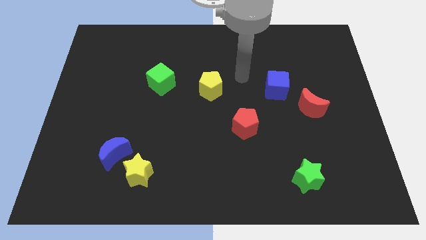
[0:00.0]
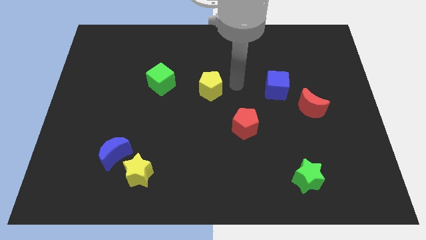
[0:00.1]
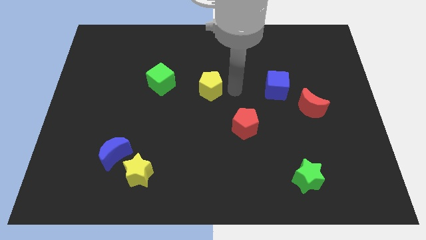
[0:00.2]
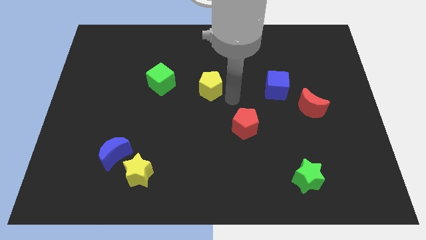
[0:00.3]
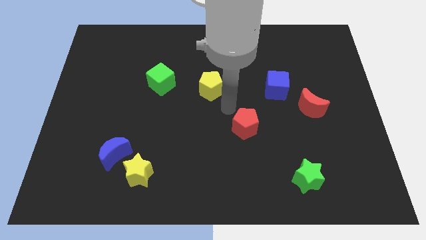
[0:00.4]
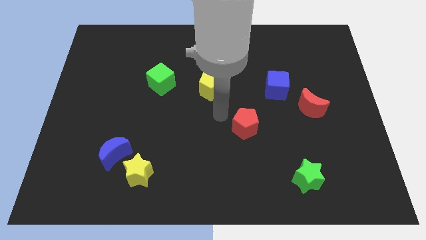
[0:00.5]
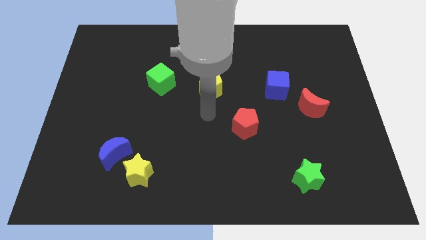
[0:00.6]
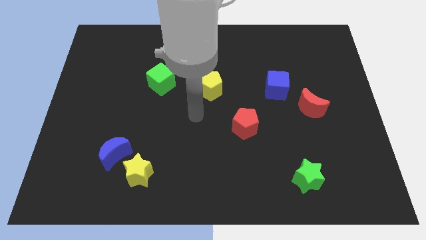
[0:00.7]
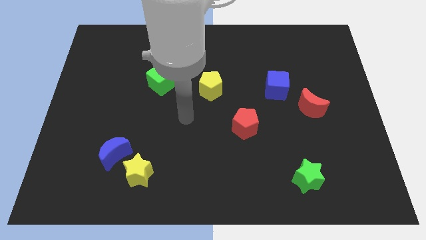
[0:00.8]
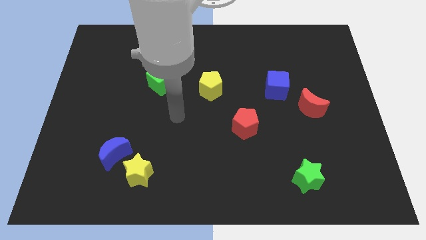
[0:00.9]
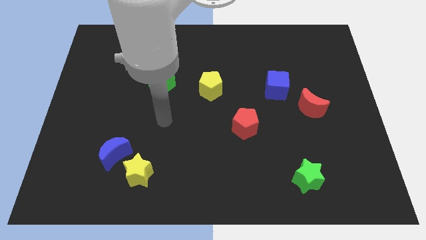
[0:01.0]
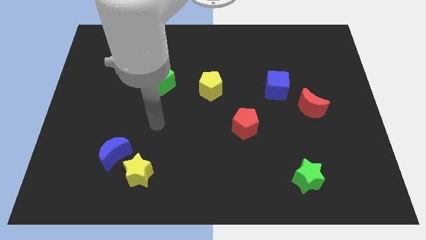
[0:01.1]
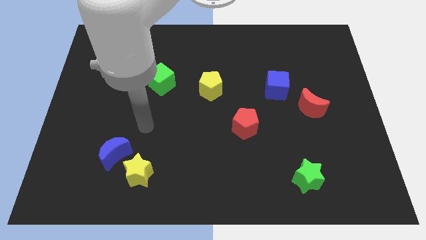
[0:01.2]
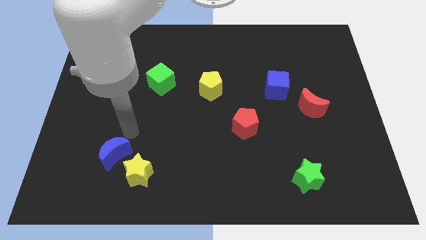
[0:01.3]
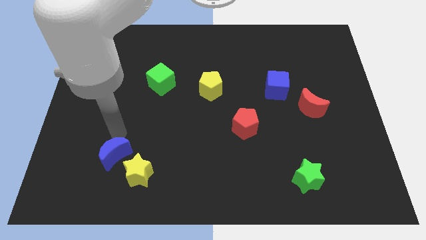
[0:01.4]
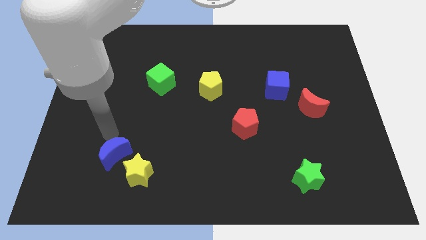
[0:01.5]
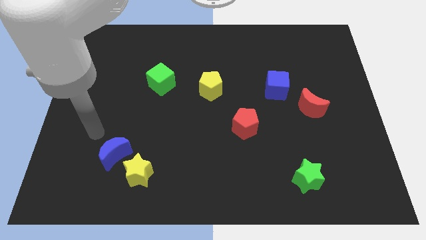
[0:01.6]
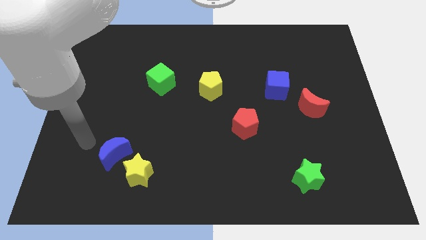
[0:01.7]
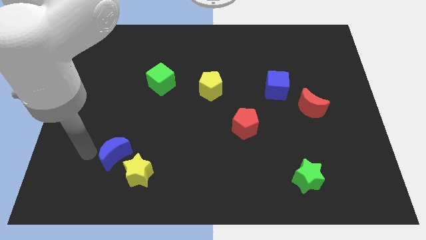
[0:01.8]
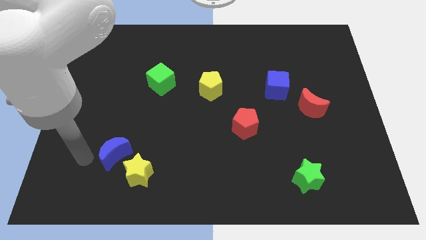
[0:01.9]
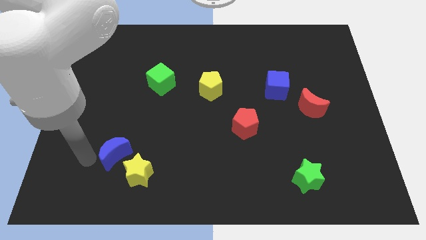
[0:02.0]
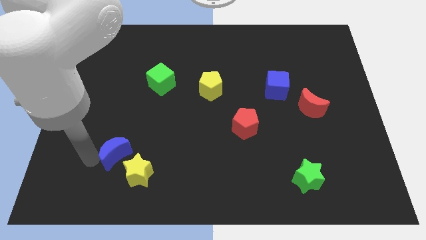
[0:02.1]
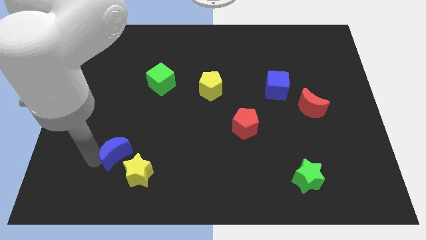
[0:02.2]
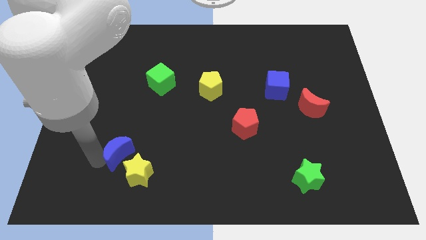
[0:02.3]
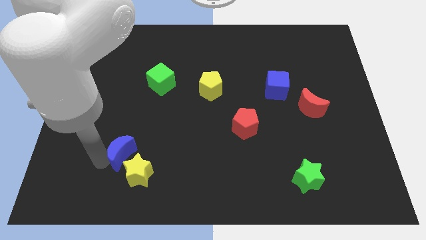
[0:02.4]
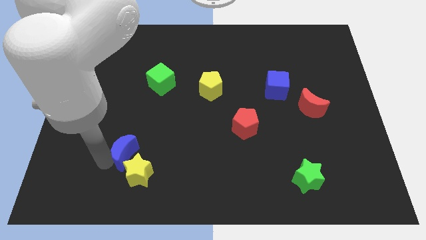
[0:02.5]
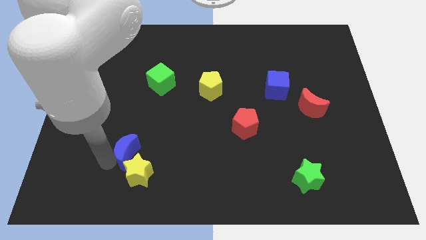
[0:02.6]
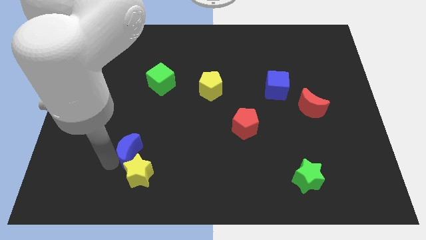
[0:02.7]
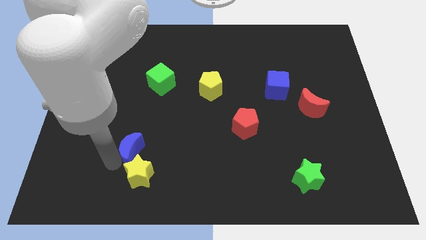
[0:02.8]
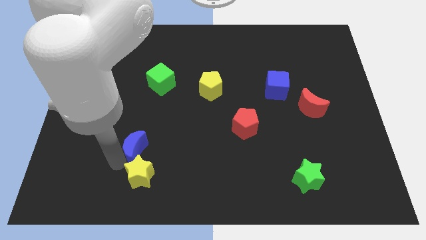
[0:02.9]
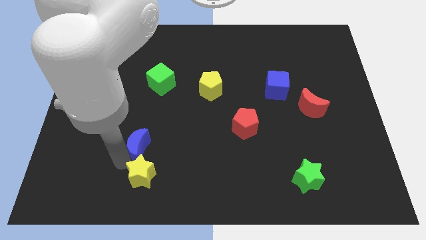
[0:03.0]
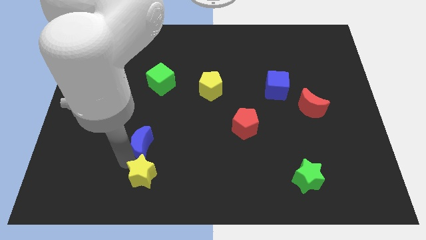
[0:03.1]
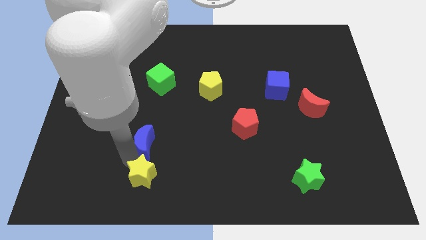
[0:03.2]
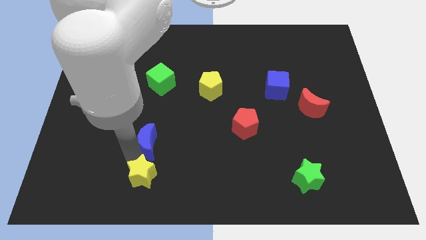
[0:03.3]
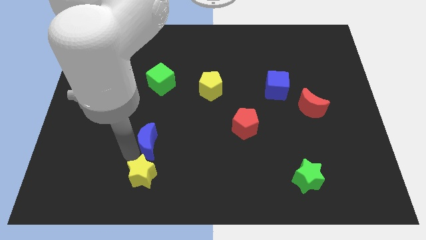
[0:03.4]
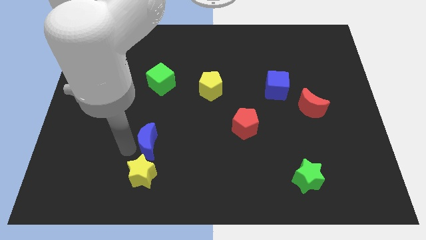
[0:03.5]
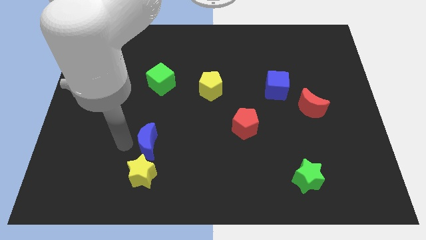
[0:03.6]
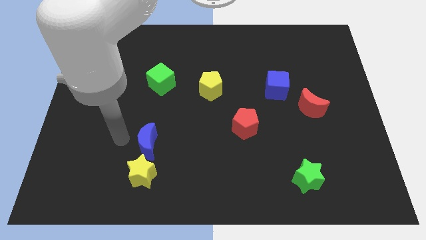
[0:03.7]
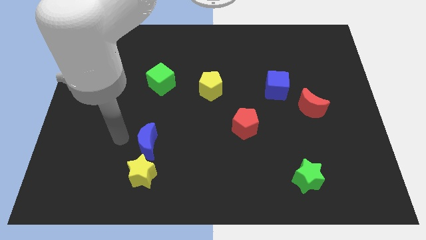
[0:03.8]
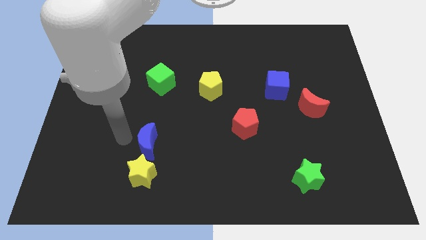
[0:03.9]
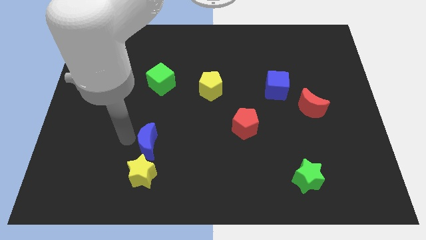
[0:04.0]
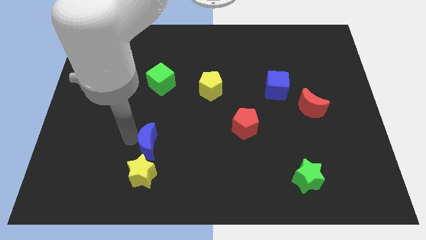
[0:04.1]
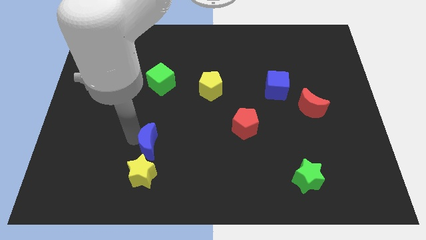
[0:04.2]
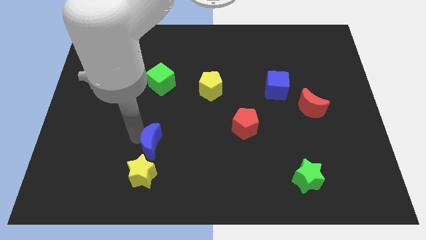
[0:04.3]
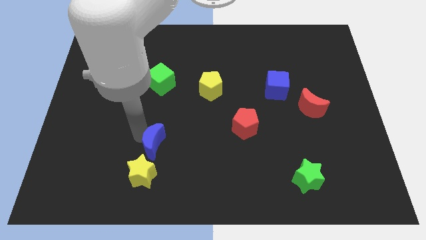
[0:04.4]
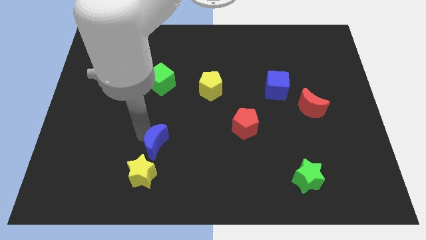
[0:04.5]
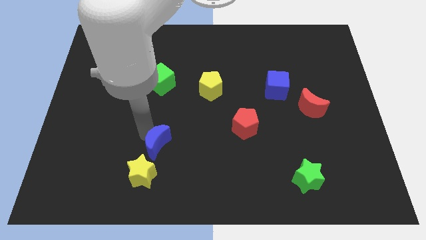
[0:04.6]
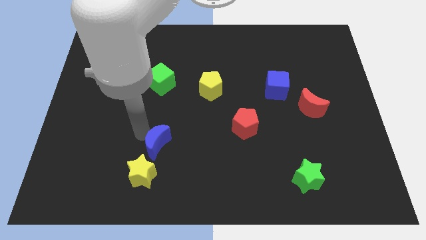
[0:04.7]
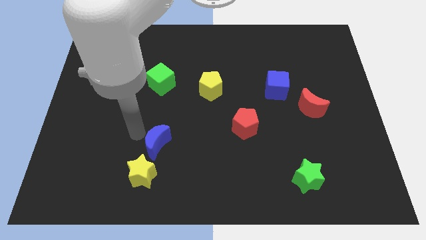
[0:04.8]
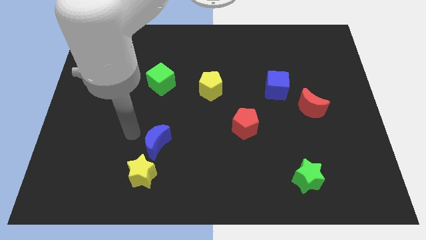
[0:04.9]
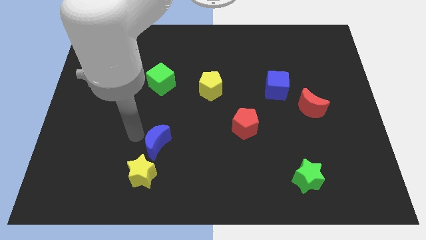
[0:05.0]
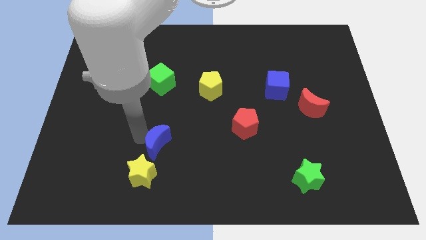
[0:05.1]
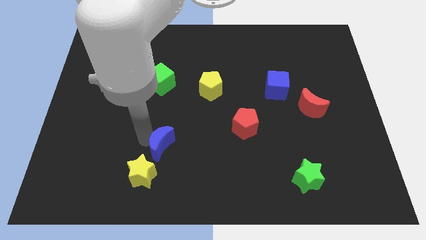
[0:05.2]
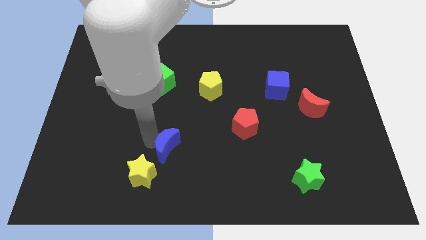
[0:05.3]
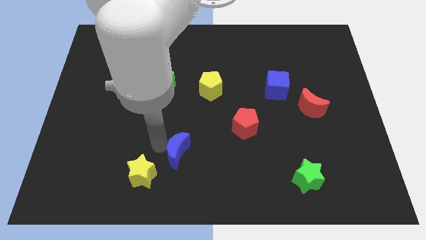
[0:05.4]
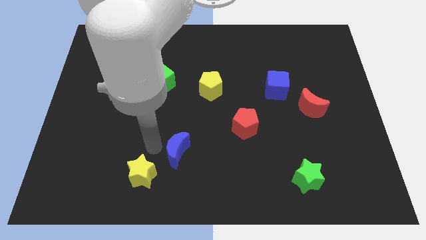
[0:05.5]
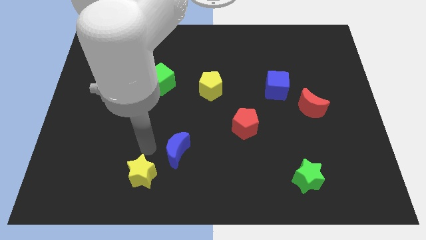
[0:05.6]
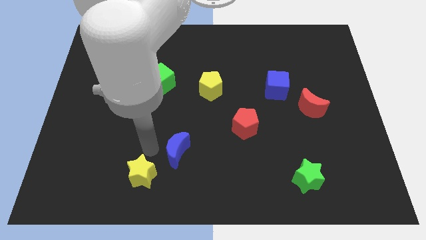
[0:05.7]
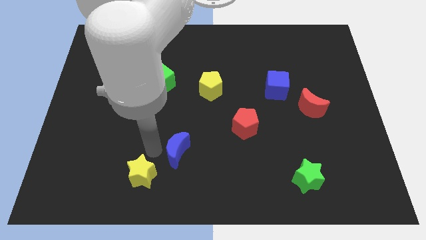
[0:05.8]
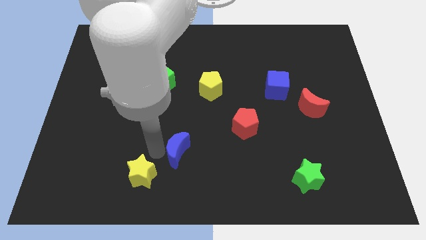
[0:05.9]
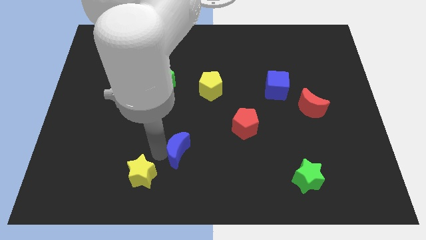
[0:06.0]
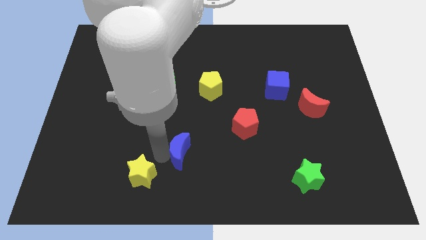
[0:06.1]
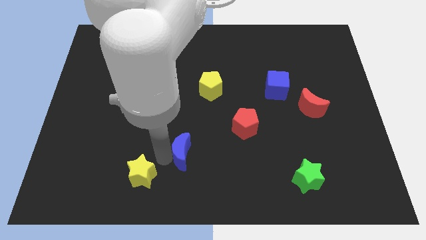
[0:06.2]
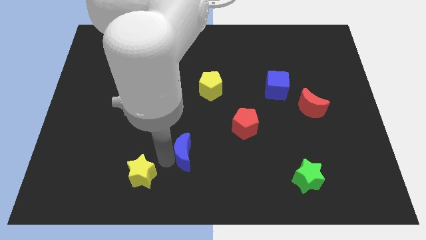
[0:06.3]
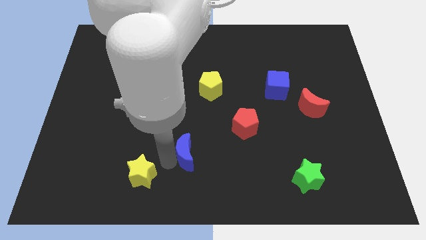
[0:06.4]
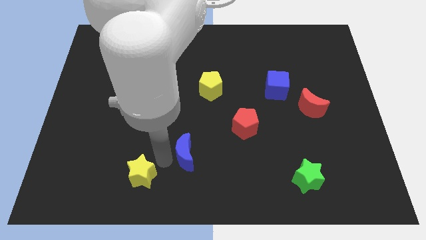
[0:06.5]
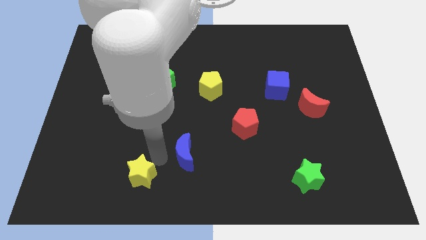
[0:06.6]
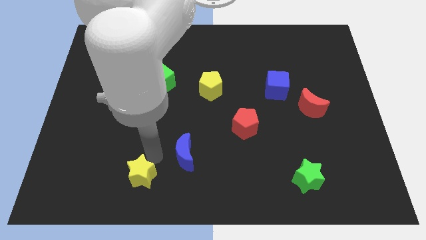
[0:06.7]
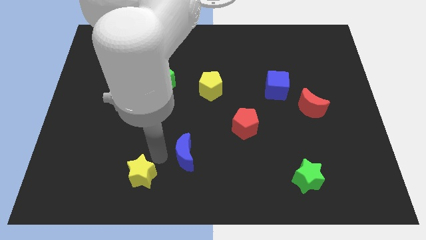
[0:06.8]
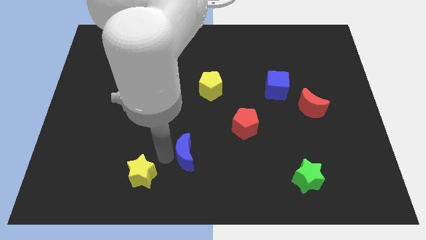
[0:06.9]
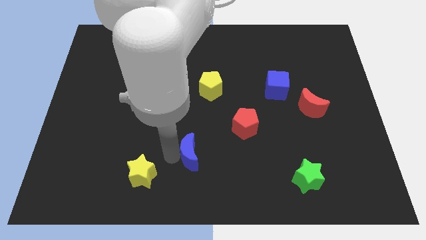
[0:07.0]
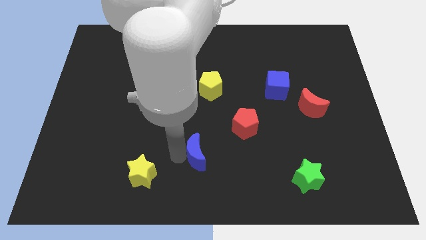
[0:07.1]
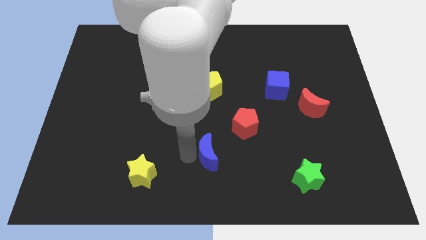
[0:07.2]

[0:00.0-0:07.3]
push the blue moon right

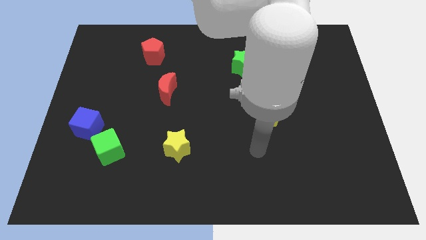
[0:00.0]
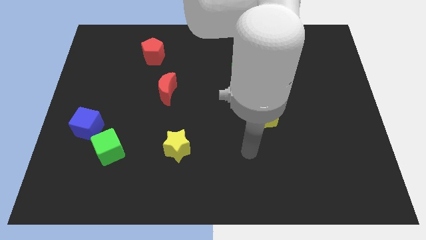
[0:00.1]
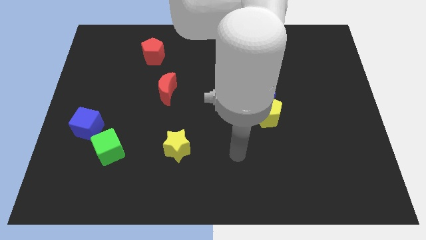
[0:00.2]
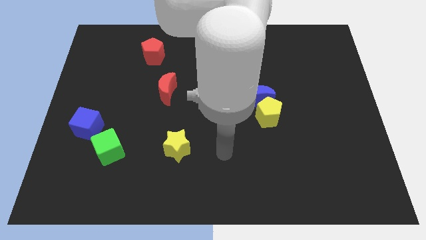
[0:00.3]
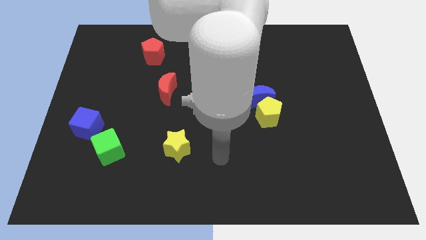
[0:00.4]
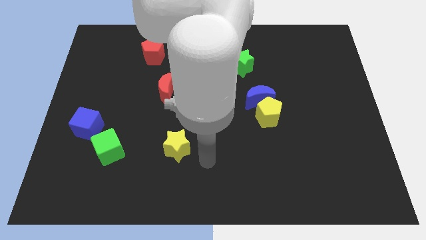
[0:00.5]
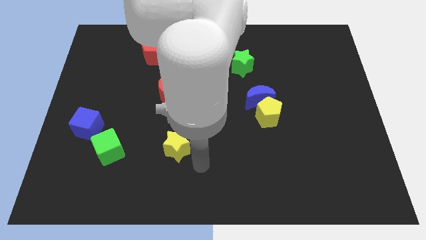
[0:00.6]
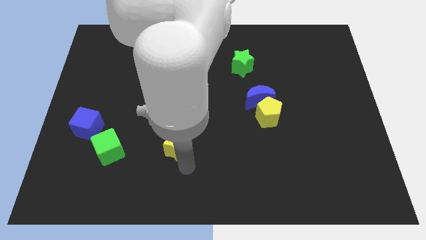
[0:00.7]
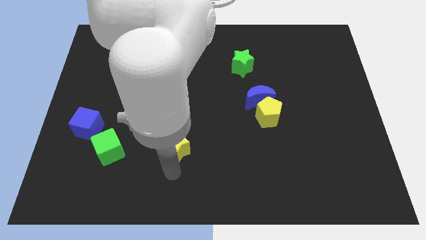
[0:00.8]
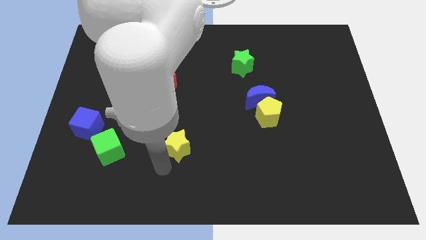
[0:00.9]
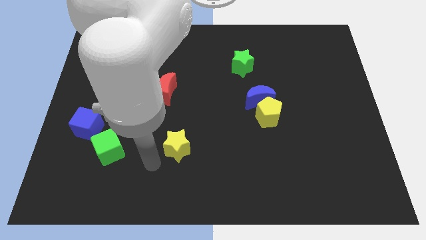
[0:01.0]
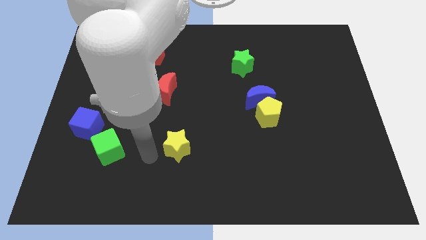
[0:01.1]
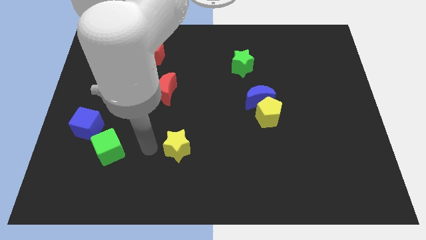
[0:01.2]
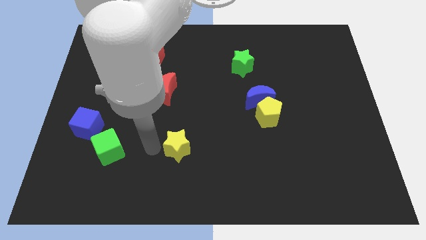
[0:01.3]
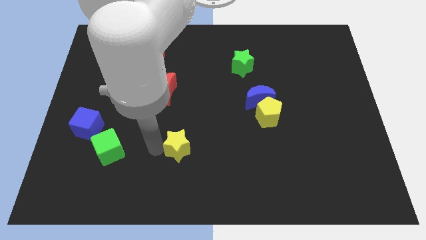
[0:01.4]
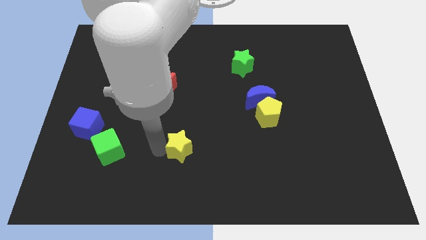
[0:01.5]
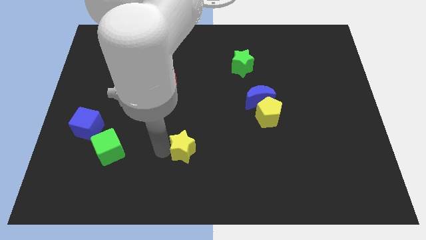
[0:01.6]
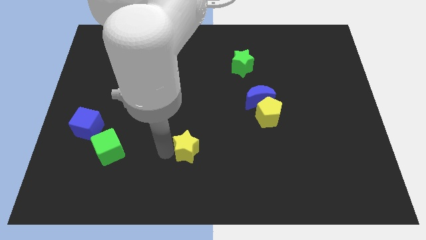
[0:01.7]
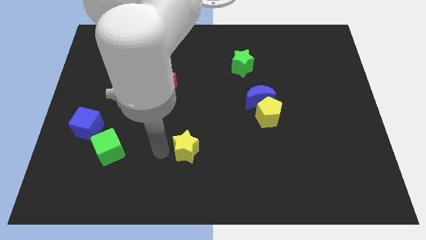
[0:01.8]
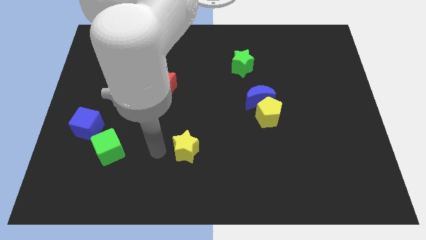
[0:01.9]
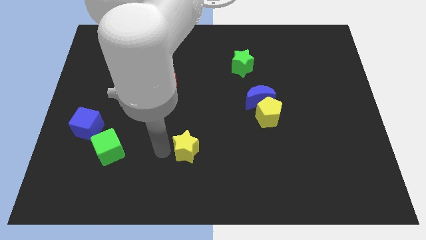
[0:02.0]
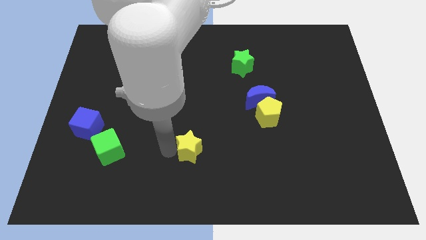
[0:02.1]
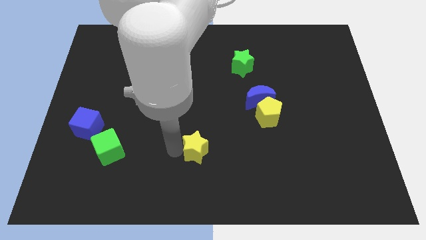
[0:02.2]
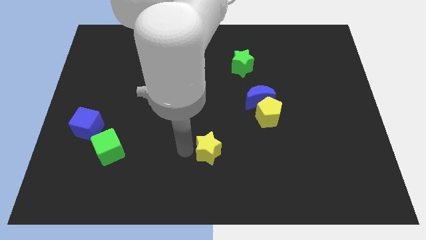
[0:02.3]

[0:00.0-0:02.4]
move the yellow star a bit to the right
